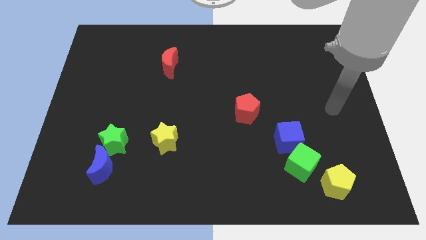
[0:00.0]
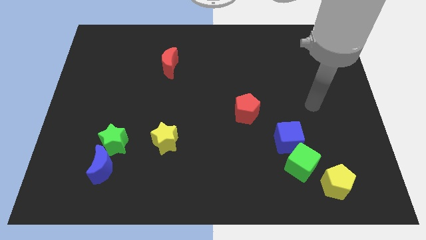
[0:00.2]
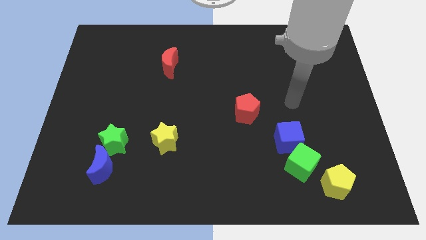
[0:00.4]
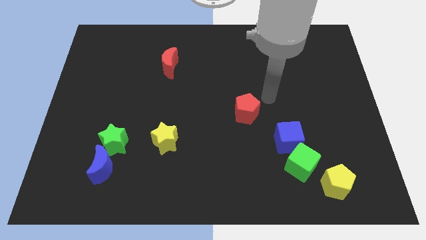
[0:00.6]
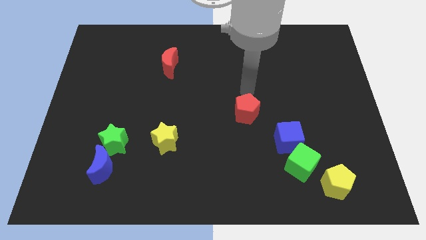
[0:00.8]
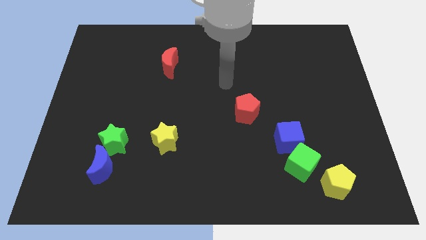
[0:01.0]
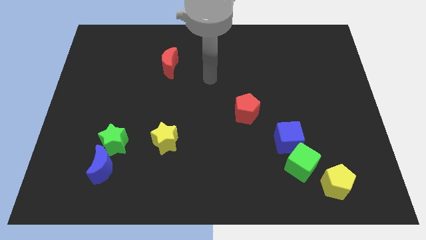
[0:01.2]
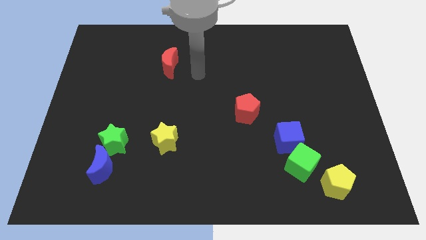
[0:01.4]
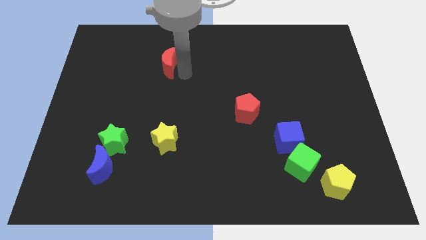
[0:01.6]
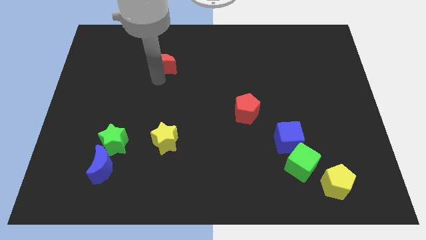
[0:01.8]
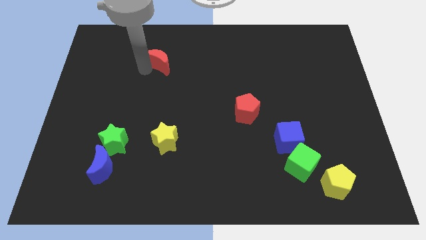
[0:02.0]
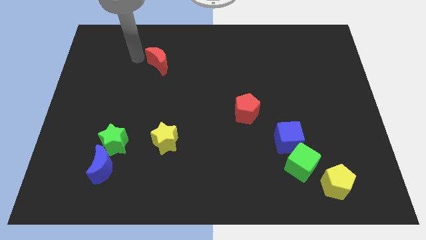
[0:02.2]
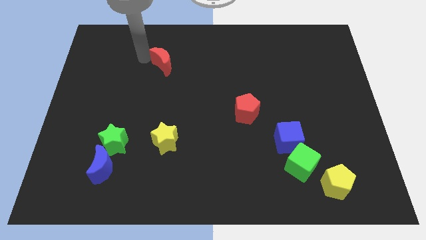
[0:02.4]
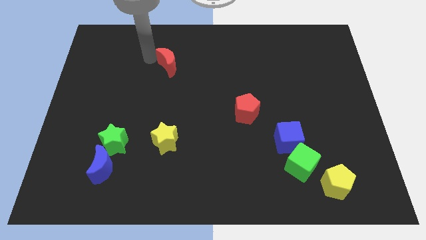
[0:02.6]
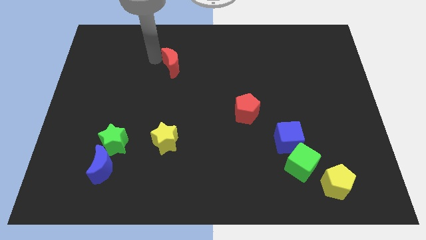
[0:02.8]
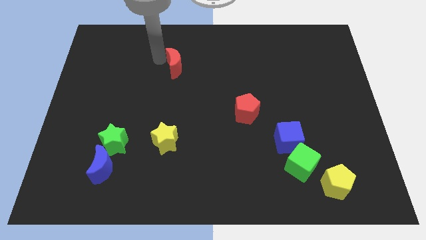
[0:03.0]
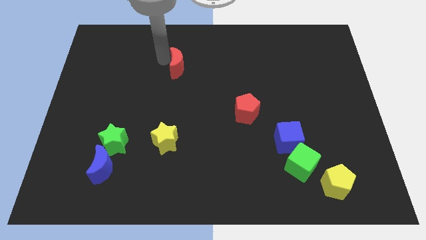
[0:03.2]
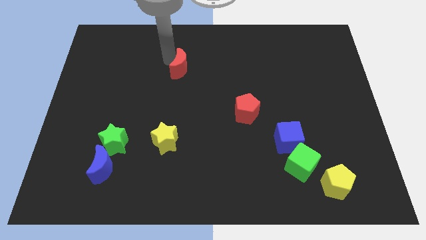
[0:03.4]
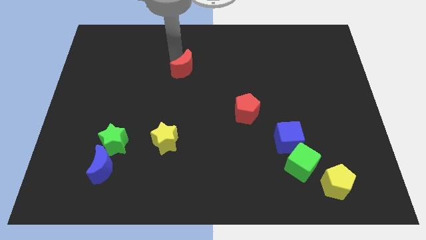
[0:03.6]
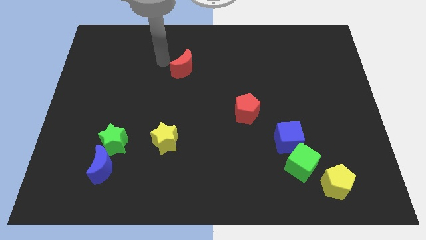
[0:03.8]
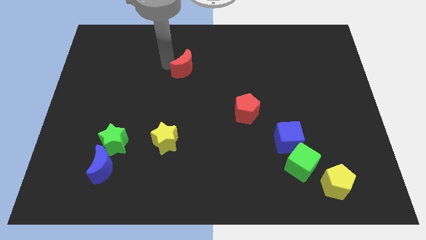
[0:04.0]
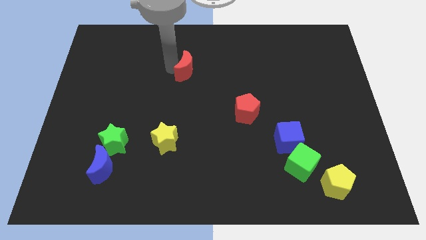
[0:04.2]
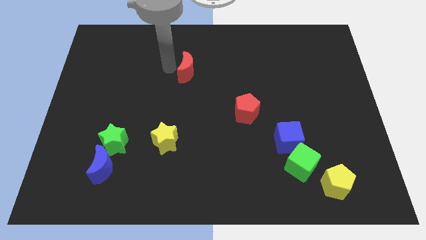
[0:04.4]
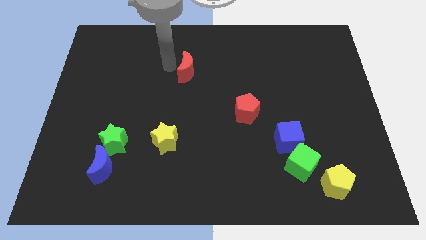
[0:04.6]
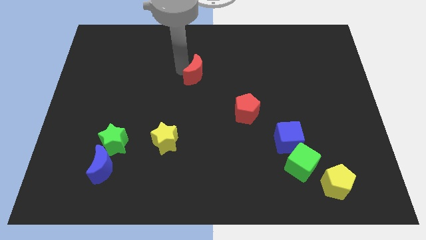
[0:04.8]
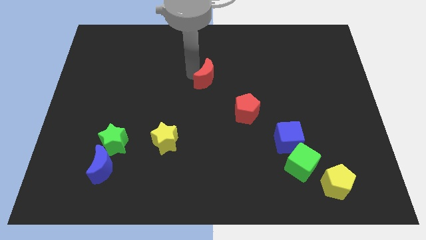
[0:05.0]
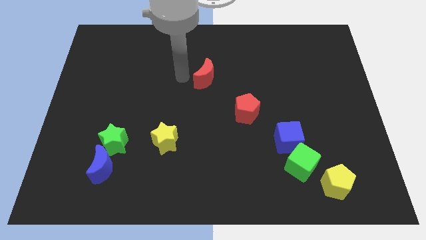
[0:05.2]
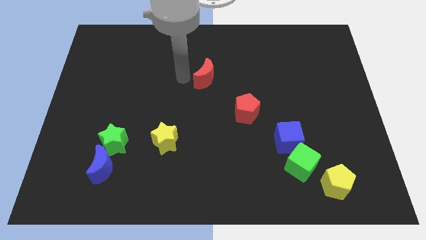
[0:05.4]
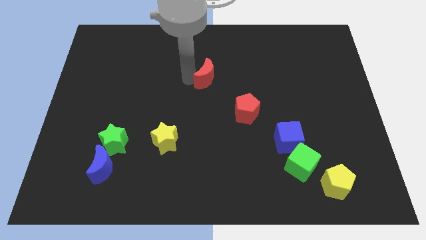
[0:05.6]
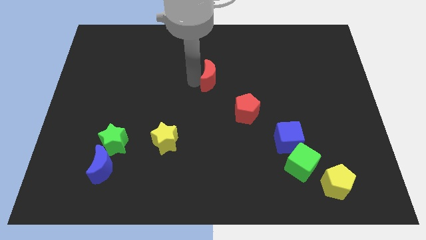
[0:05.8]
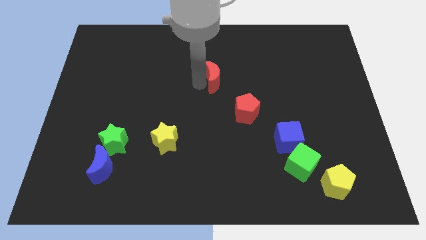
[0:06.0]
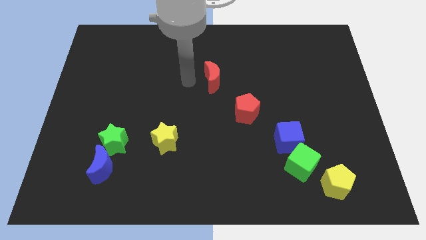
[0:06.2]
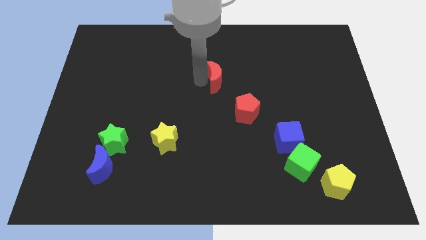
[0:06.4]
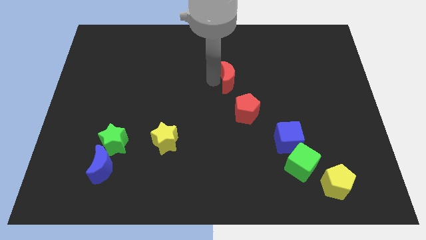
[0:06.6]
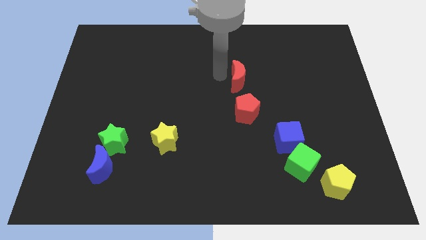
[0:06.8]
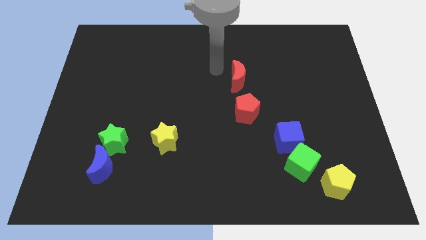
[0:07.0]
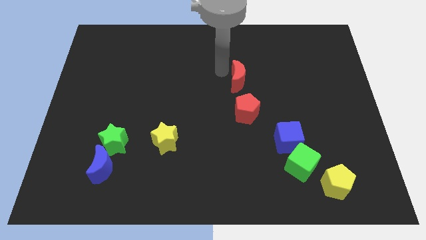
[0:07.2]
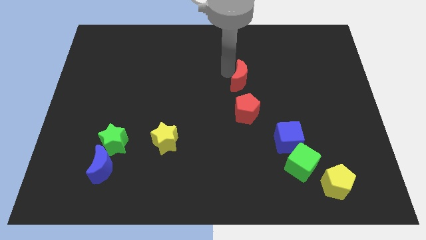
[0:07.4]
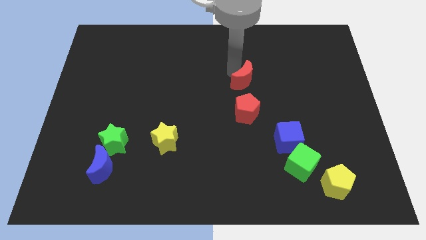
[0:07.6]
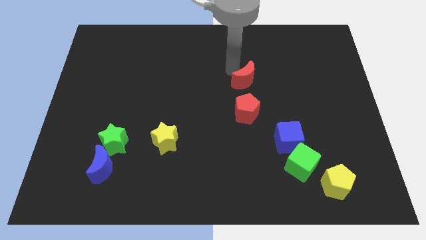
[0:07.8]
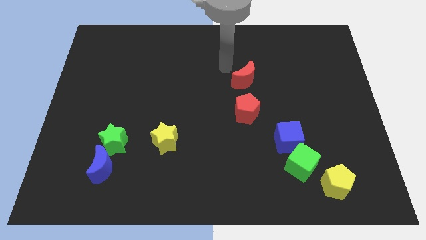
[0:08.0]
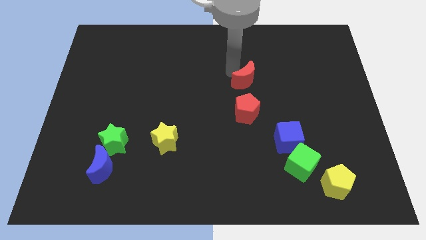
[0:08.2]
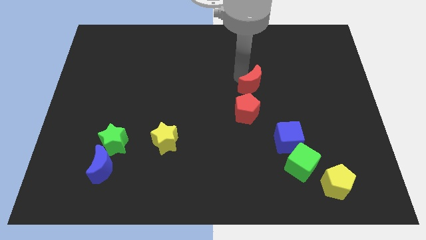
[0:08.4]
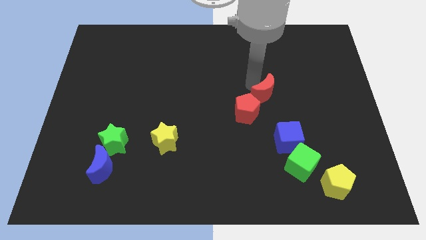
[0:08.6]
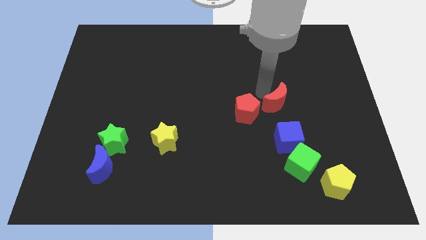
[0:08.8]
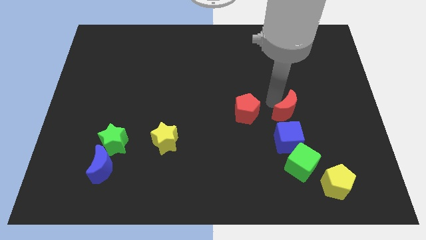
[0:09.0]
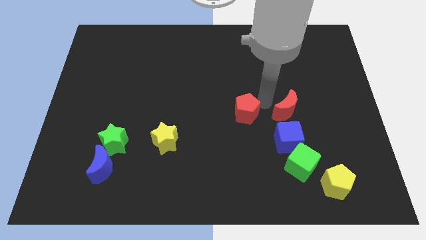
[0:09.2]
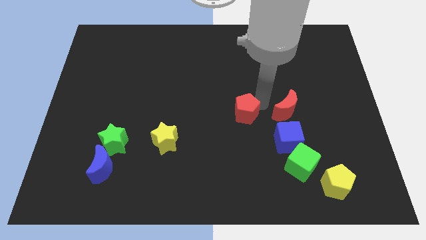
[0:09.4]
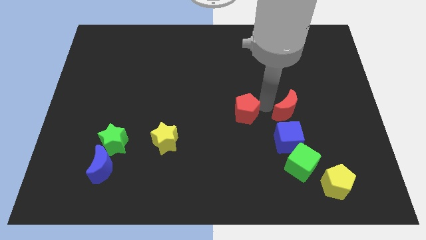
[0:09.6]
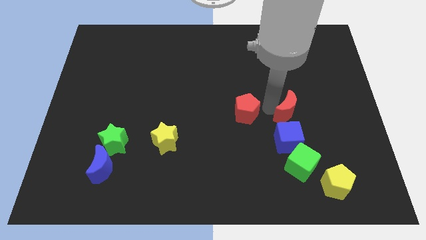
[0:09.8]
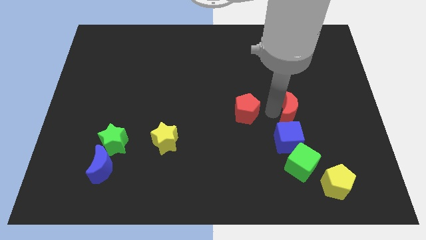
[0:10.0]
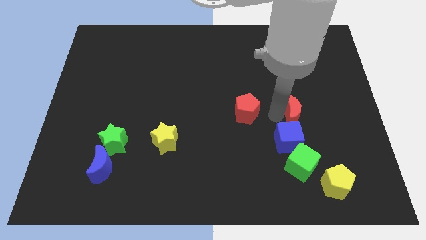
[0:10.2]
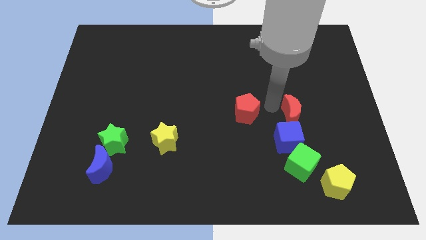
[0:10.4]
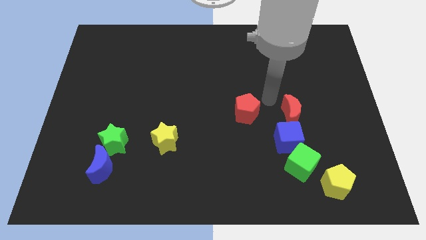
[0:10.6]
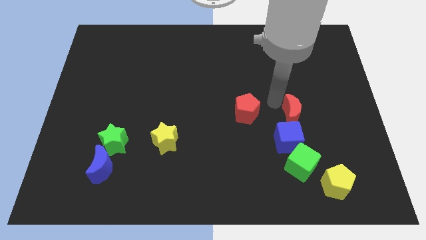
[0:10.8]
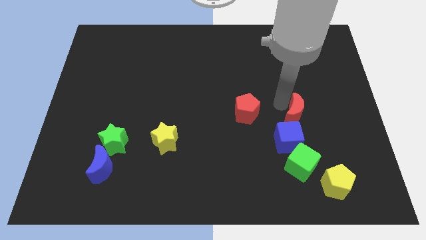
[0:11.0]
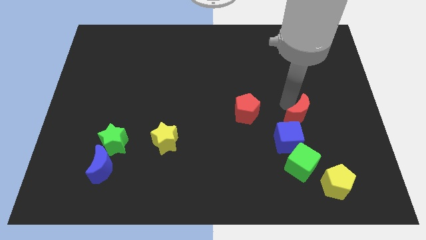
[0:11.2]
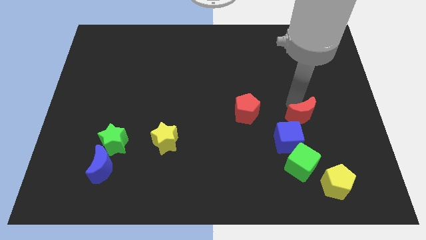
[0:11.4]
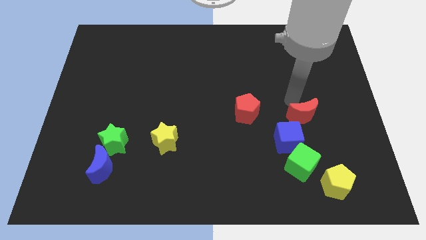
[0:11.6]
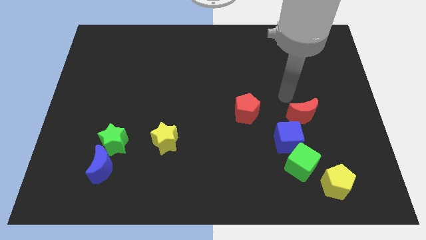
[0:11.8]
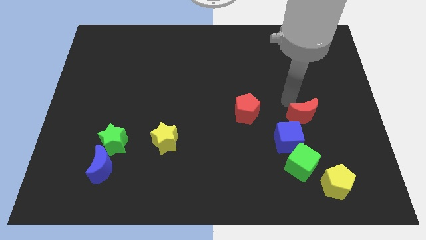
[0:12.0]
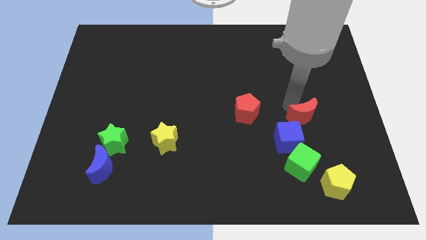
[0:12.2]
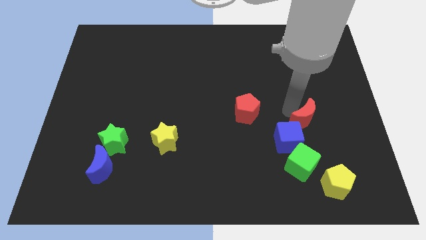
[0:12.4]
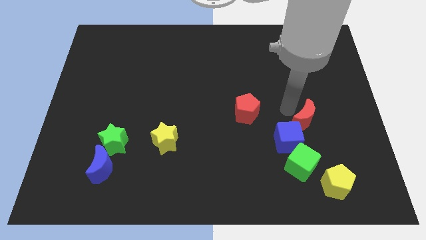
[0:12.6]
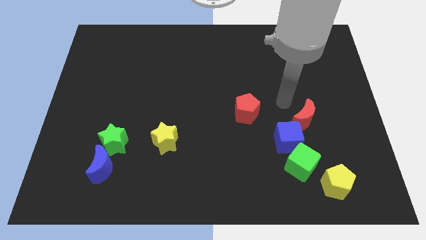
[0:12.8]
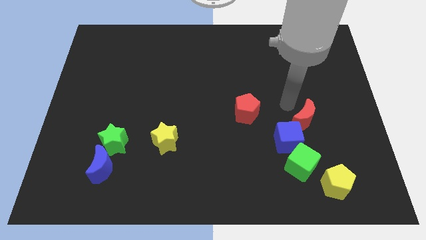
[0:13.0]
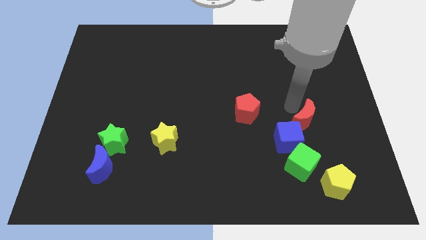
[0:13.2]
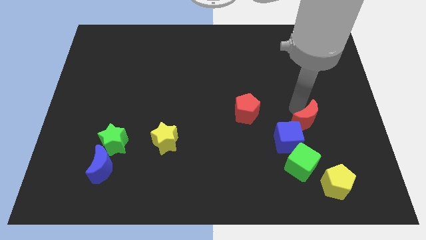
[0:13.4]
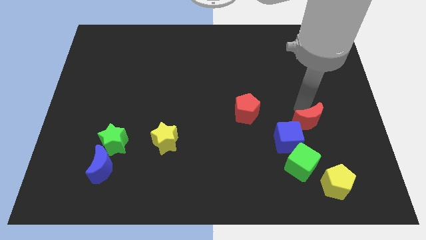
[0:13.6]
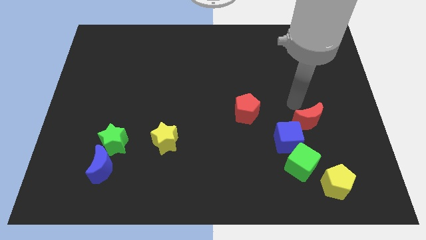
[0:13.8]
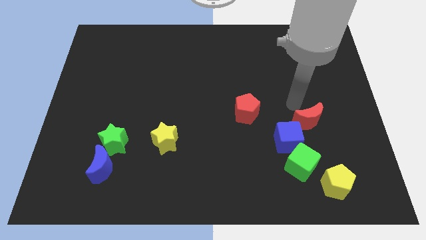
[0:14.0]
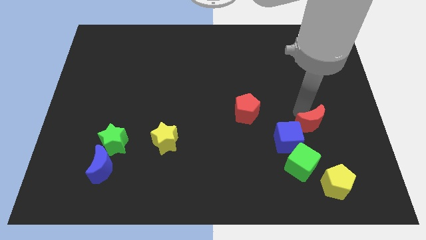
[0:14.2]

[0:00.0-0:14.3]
push the red moon to the right side of the blue cube
